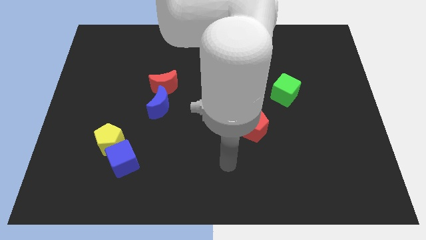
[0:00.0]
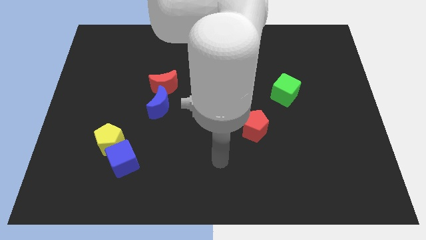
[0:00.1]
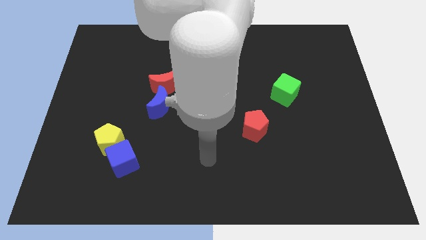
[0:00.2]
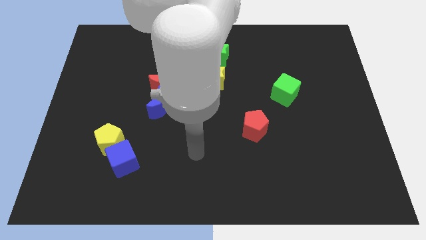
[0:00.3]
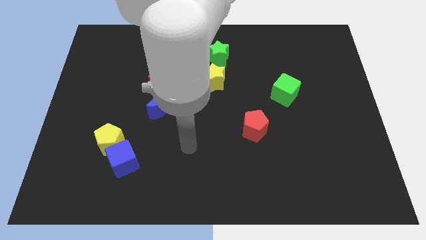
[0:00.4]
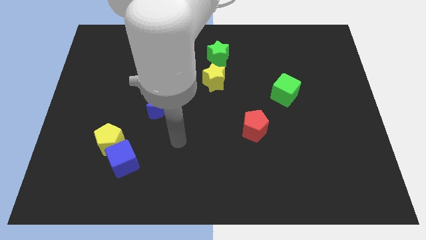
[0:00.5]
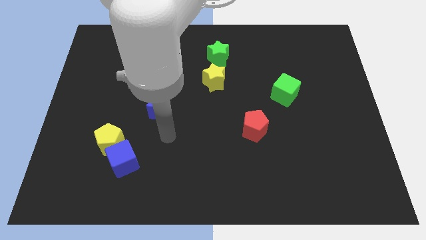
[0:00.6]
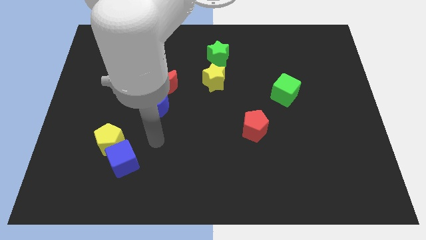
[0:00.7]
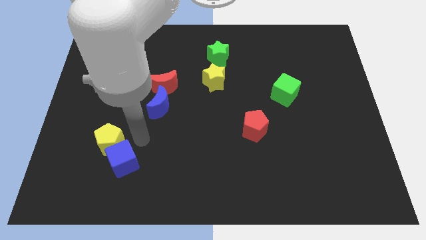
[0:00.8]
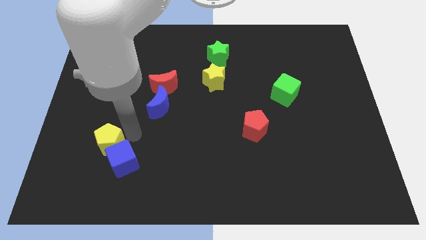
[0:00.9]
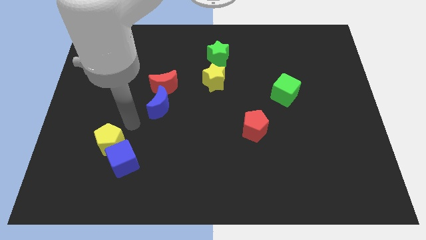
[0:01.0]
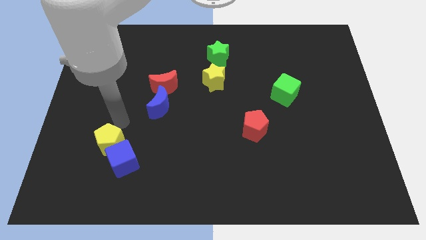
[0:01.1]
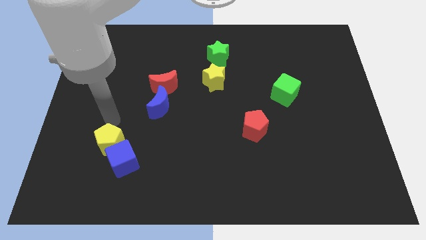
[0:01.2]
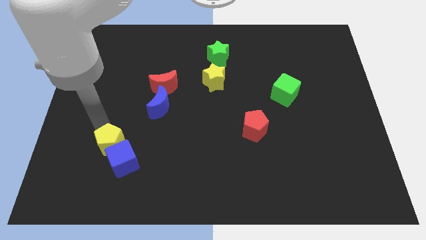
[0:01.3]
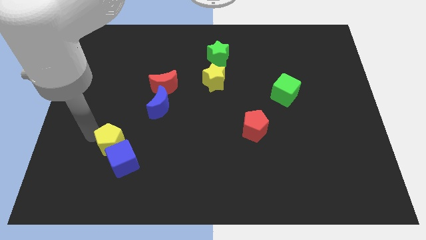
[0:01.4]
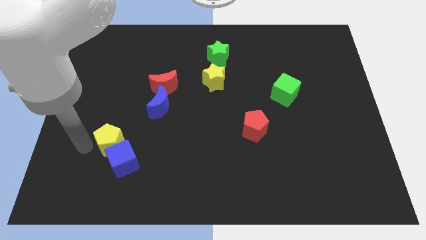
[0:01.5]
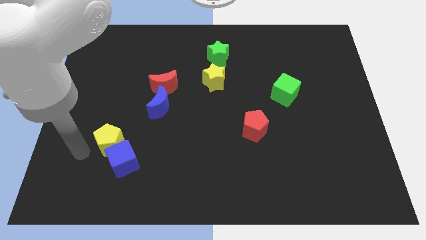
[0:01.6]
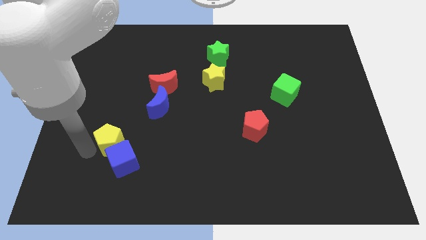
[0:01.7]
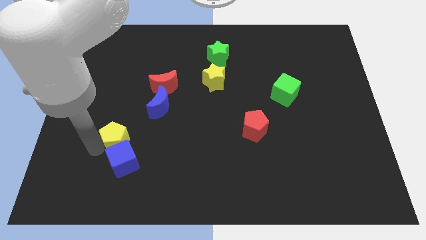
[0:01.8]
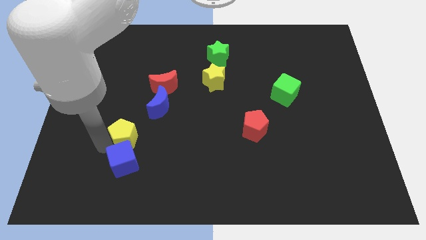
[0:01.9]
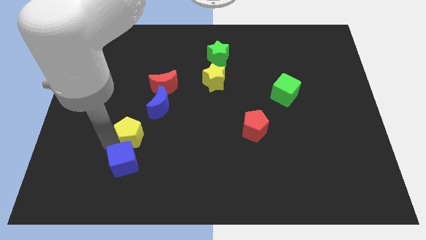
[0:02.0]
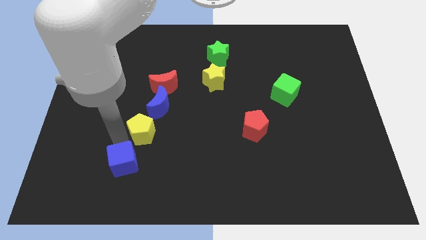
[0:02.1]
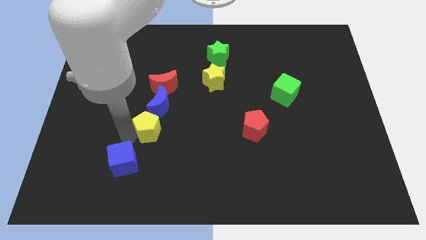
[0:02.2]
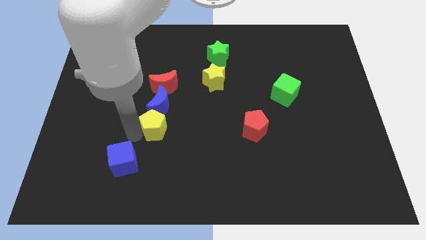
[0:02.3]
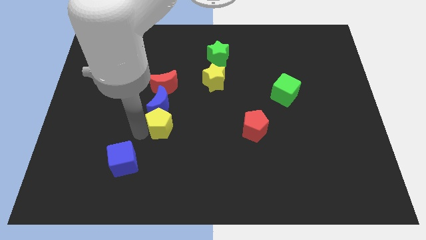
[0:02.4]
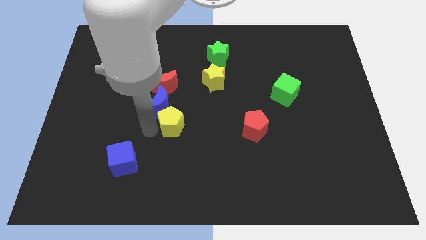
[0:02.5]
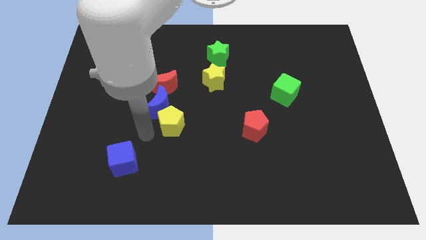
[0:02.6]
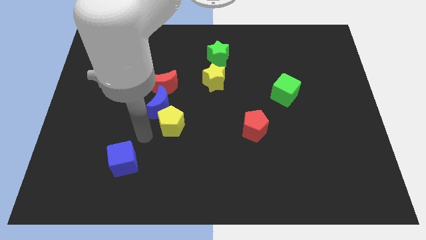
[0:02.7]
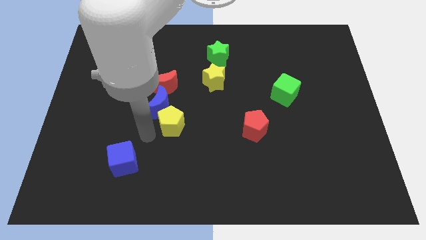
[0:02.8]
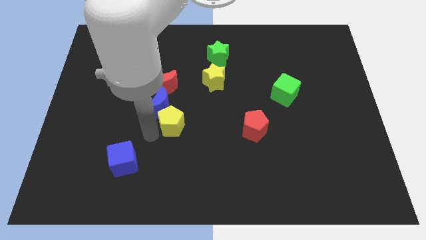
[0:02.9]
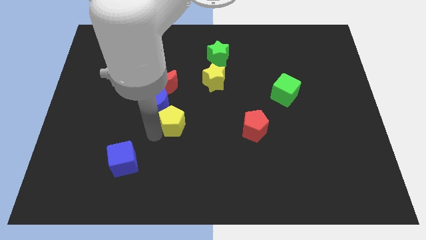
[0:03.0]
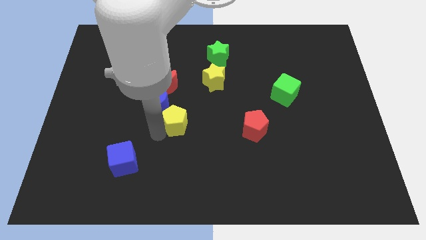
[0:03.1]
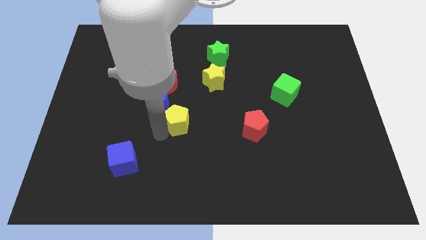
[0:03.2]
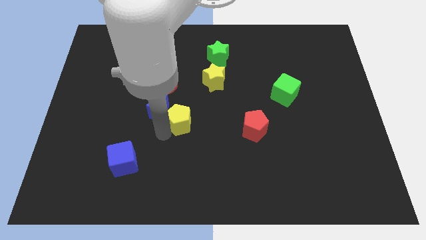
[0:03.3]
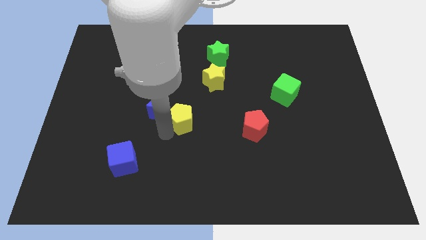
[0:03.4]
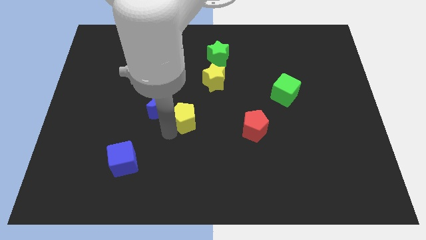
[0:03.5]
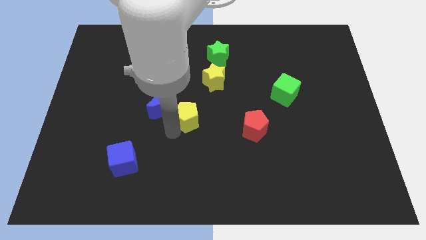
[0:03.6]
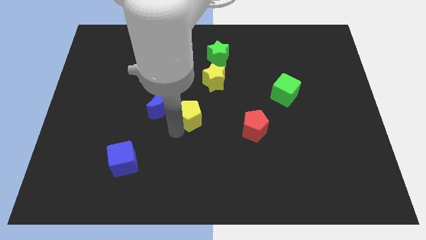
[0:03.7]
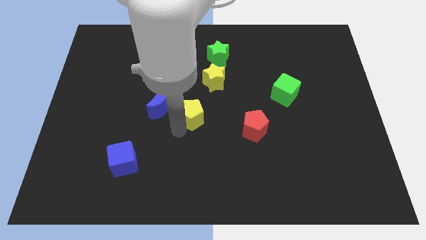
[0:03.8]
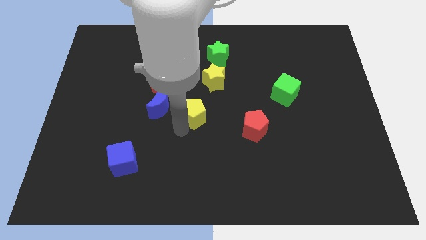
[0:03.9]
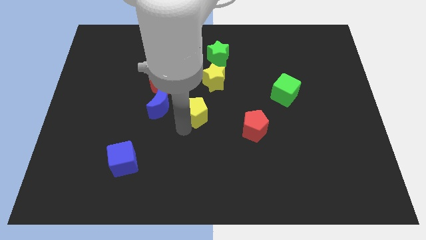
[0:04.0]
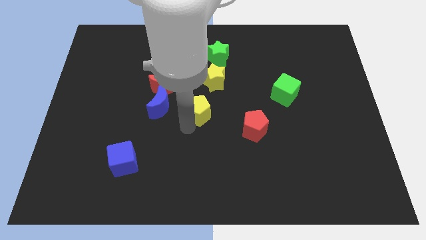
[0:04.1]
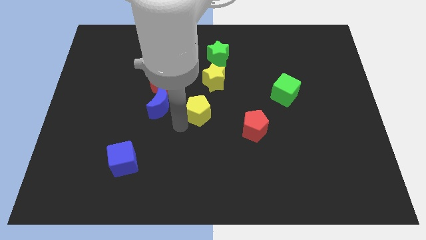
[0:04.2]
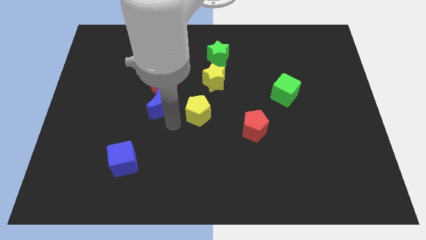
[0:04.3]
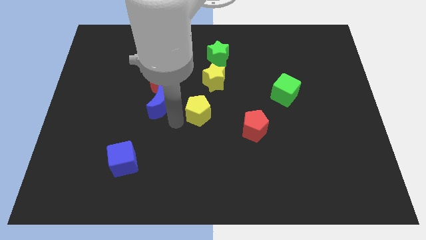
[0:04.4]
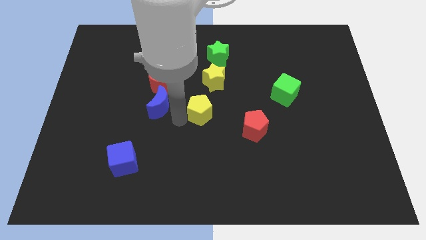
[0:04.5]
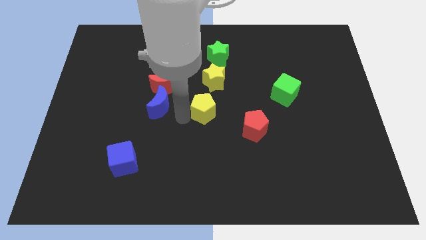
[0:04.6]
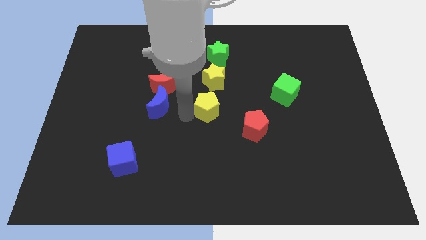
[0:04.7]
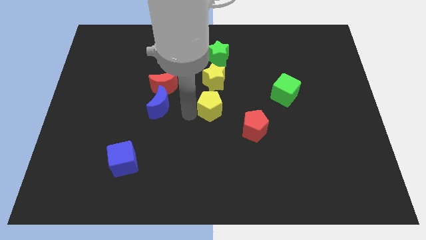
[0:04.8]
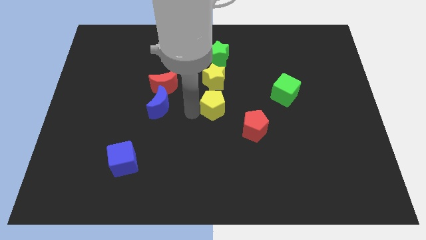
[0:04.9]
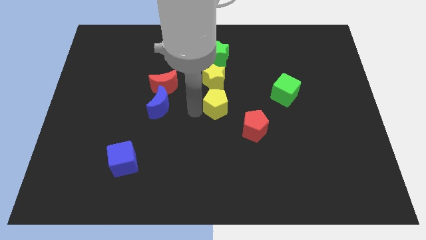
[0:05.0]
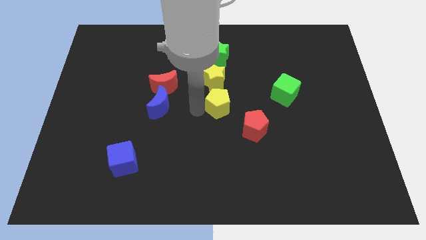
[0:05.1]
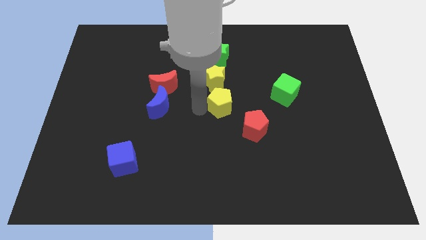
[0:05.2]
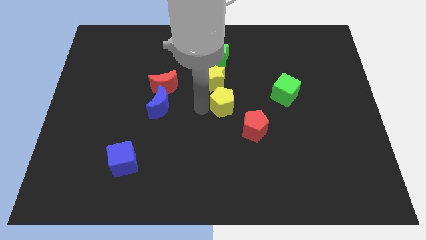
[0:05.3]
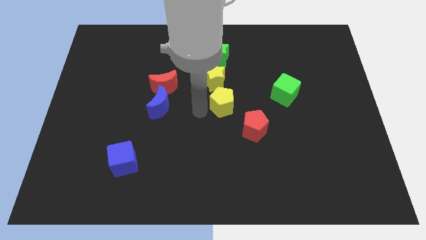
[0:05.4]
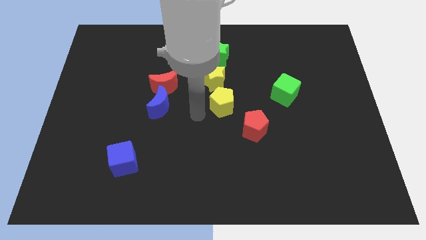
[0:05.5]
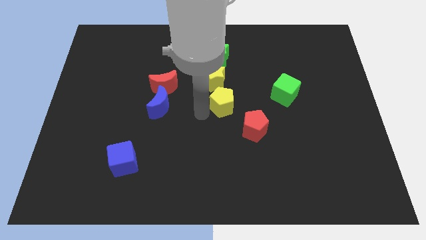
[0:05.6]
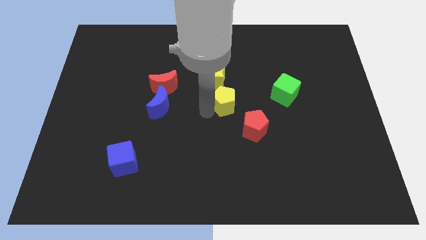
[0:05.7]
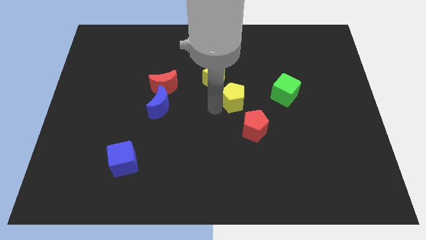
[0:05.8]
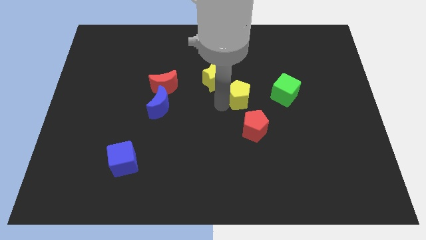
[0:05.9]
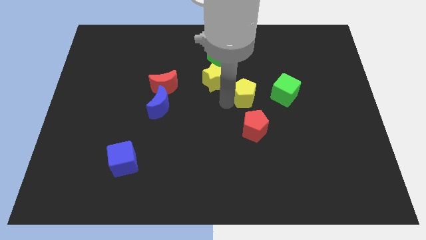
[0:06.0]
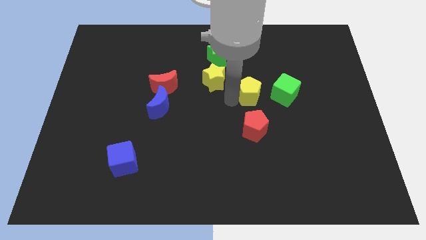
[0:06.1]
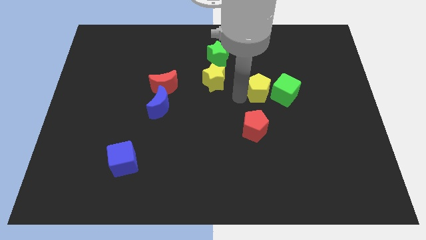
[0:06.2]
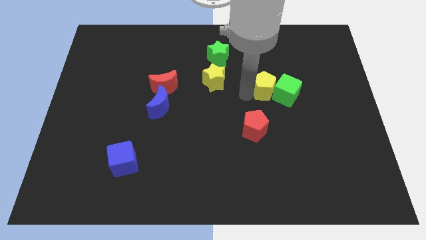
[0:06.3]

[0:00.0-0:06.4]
slide the yellow pentagon next to the green cube

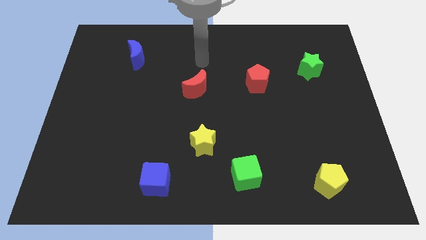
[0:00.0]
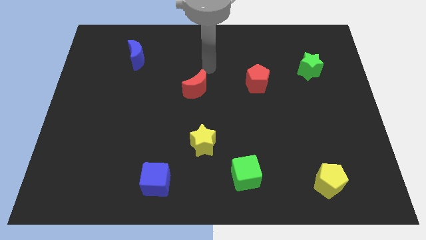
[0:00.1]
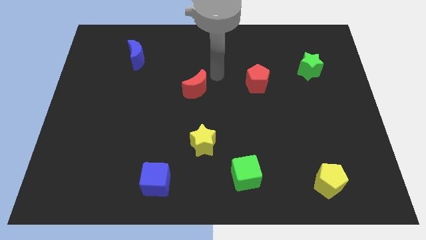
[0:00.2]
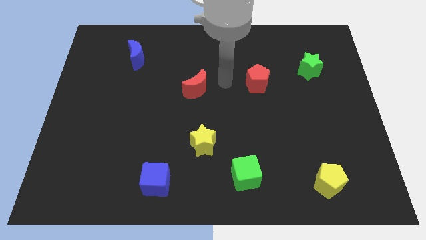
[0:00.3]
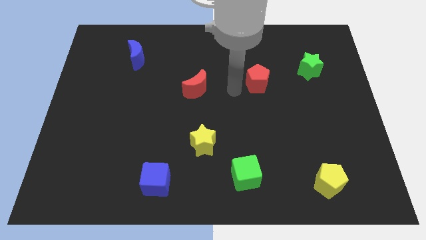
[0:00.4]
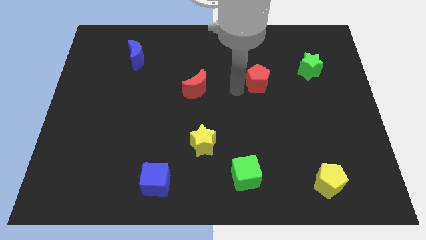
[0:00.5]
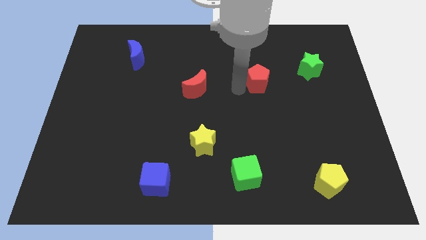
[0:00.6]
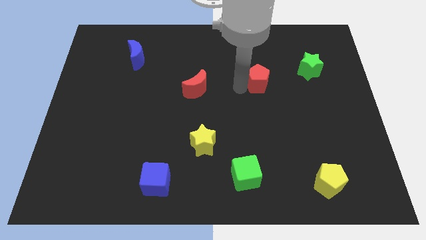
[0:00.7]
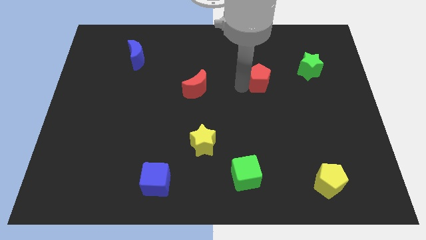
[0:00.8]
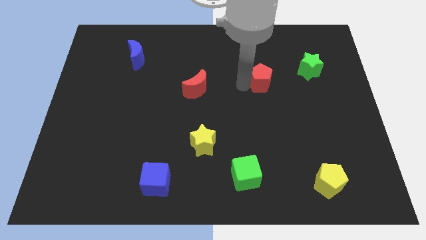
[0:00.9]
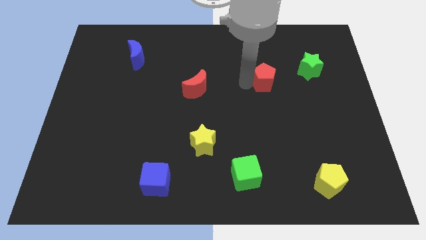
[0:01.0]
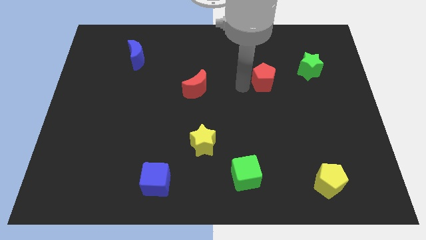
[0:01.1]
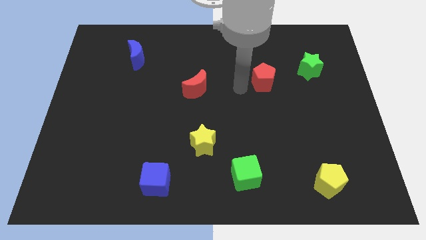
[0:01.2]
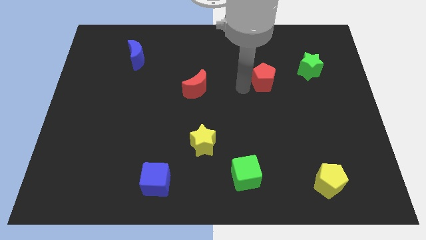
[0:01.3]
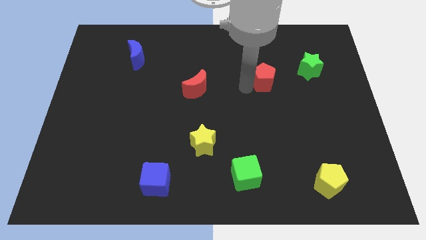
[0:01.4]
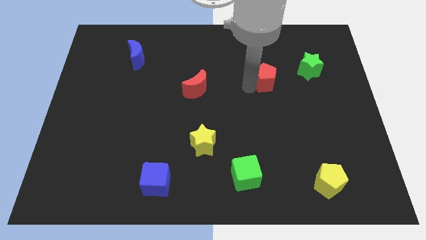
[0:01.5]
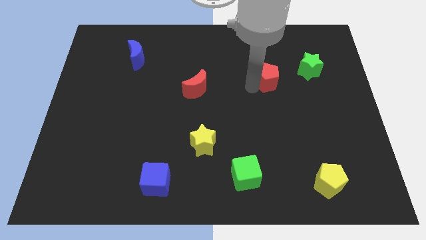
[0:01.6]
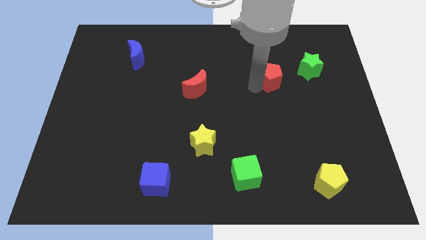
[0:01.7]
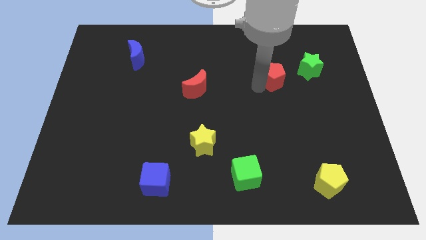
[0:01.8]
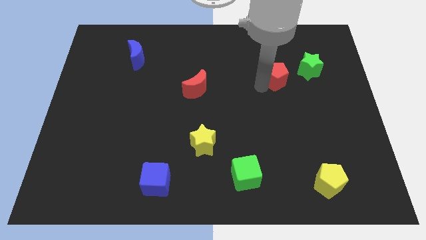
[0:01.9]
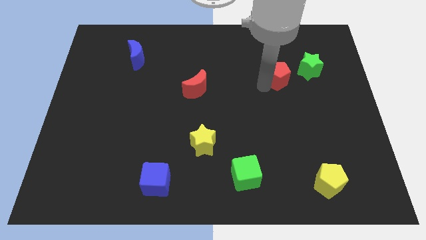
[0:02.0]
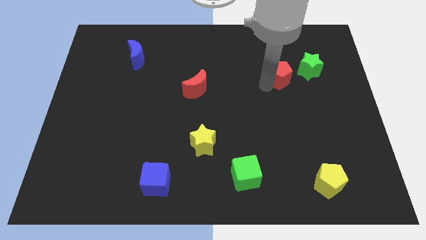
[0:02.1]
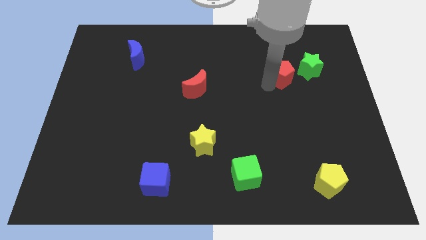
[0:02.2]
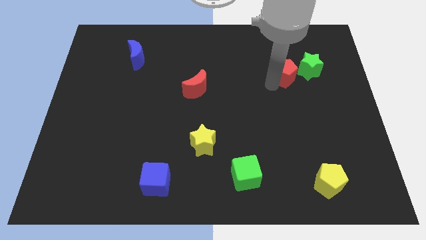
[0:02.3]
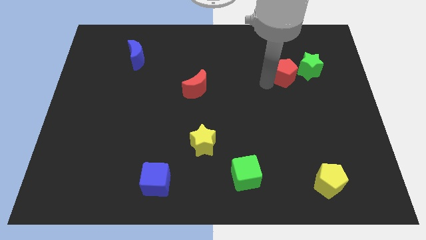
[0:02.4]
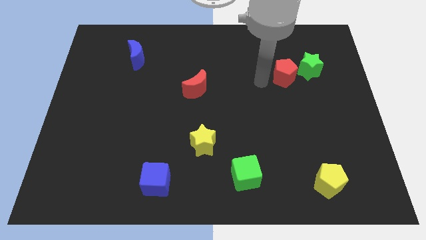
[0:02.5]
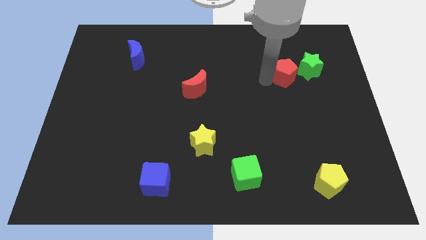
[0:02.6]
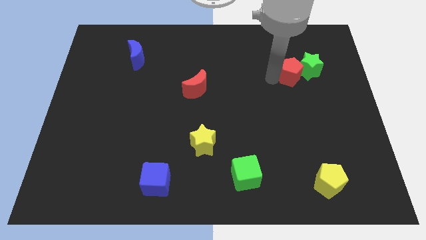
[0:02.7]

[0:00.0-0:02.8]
slide the red pentagon next to the green star
